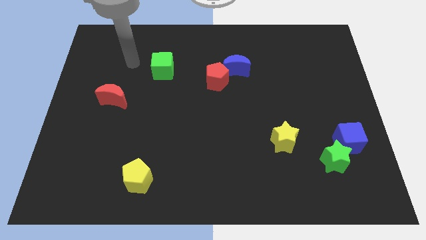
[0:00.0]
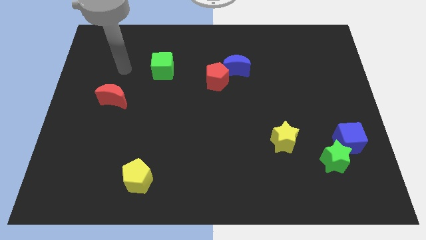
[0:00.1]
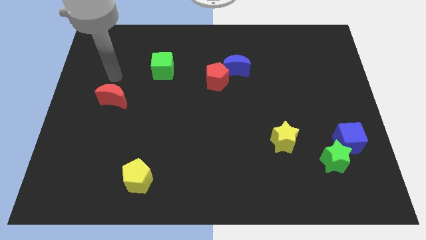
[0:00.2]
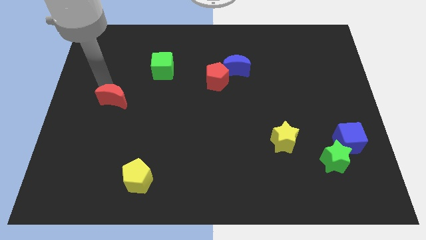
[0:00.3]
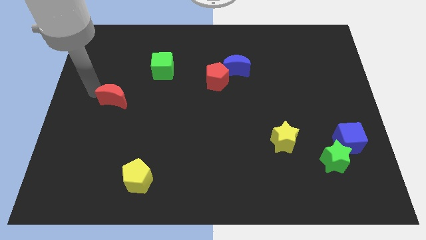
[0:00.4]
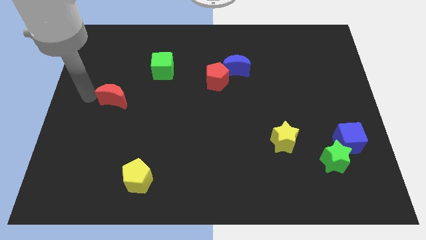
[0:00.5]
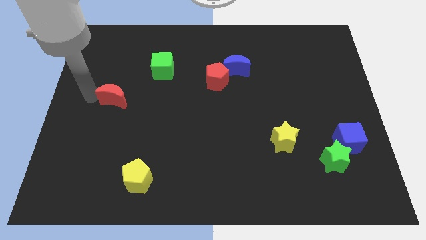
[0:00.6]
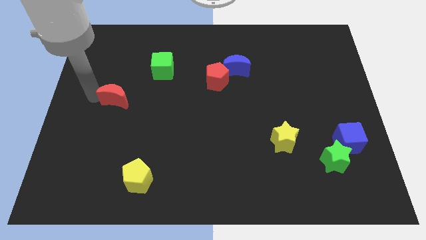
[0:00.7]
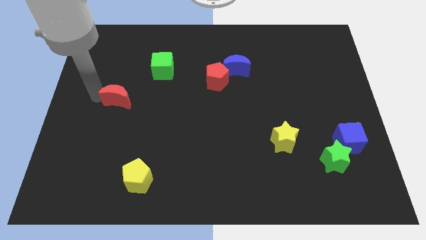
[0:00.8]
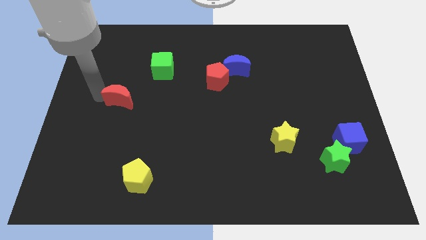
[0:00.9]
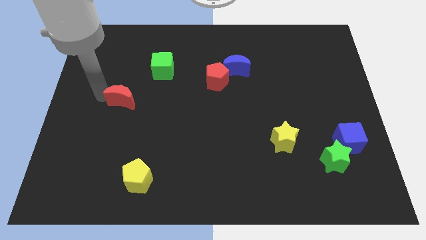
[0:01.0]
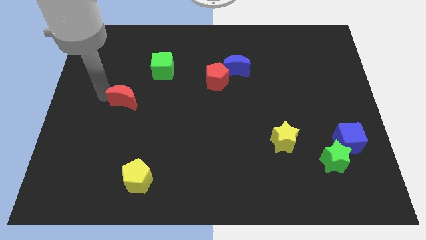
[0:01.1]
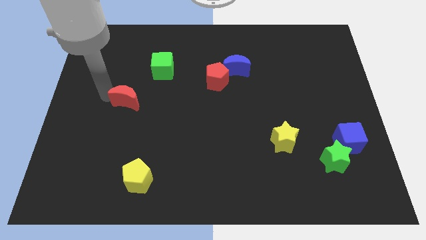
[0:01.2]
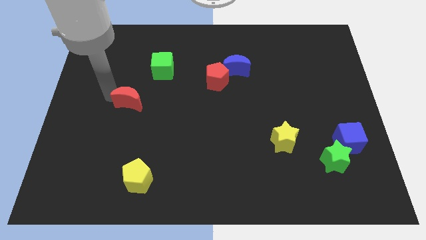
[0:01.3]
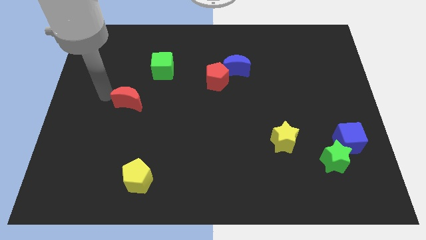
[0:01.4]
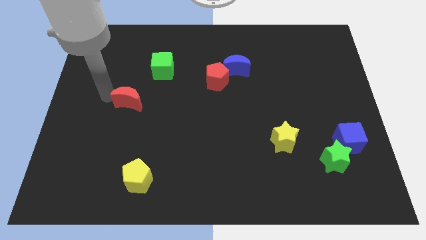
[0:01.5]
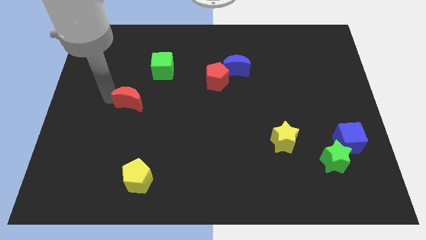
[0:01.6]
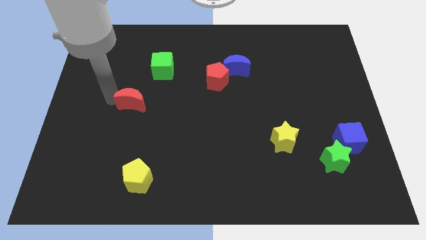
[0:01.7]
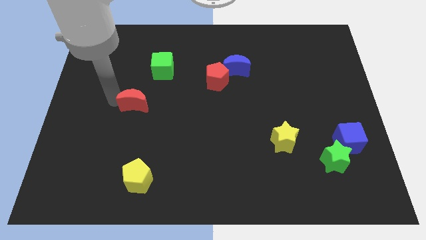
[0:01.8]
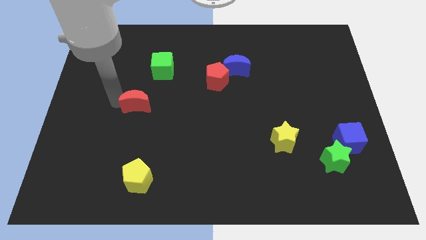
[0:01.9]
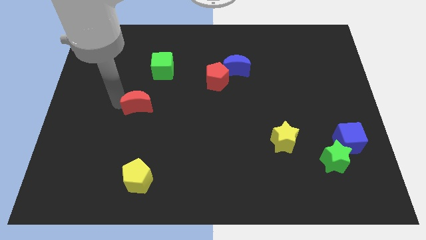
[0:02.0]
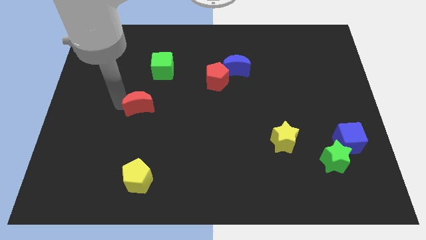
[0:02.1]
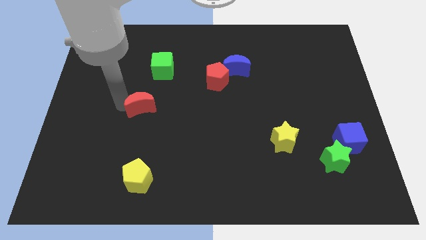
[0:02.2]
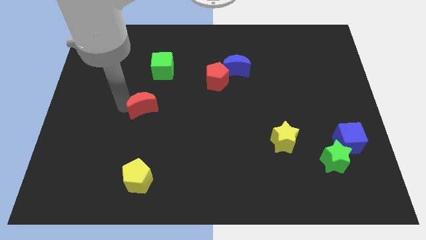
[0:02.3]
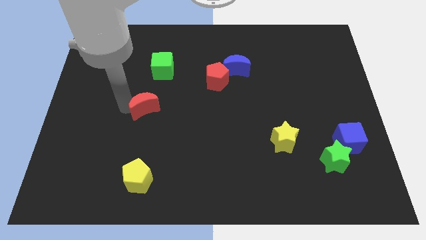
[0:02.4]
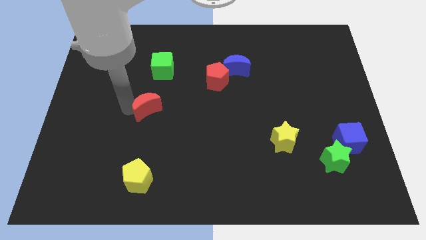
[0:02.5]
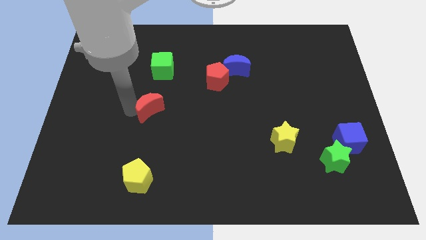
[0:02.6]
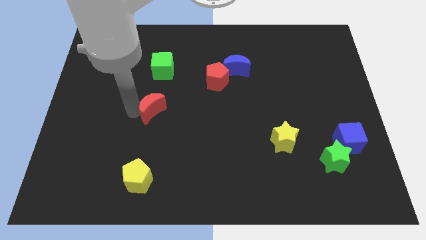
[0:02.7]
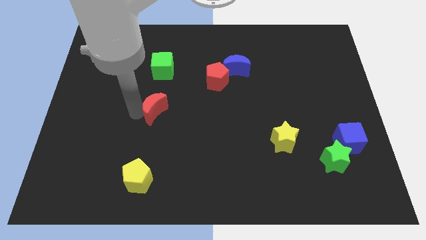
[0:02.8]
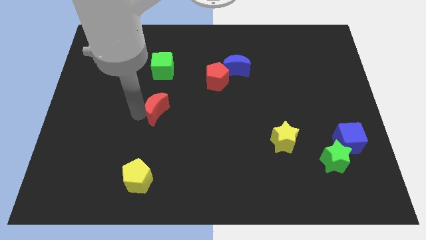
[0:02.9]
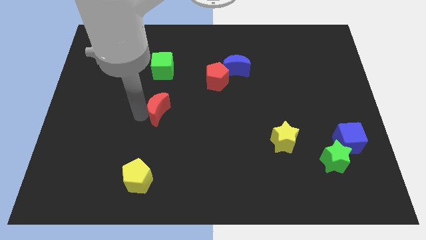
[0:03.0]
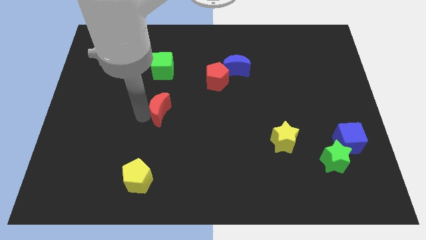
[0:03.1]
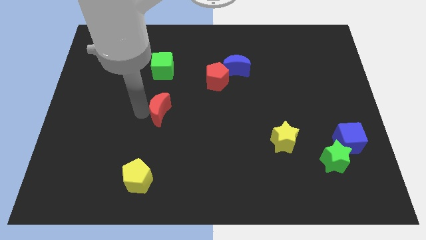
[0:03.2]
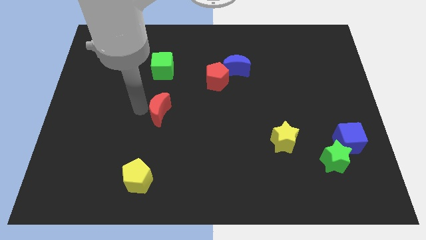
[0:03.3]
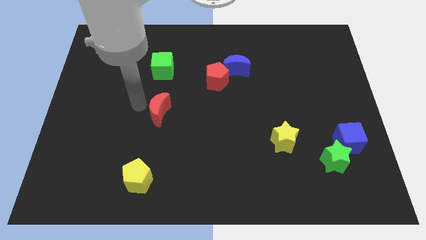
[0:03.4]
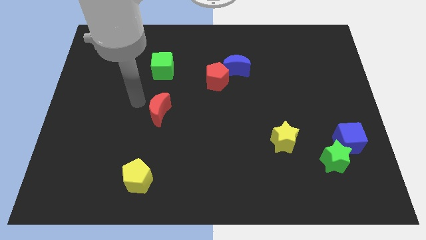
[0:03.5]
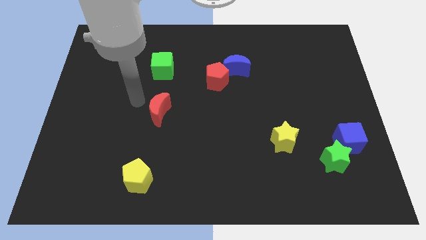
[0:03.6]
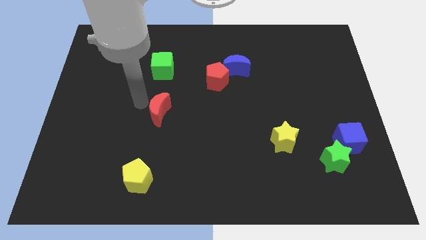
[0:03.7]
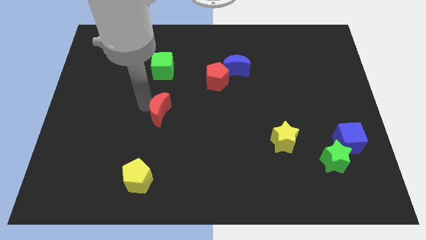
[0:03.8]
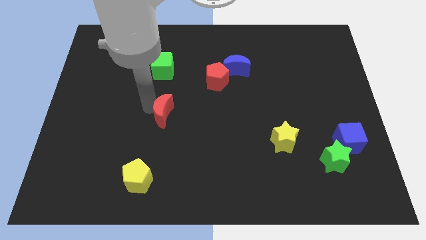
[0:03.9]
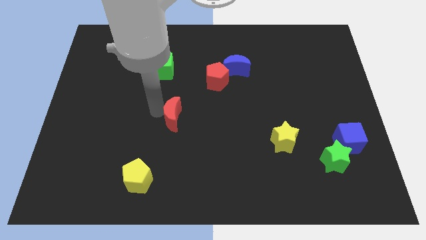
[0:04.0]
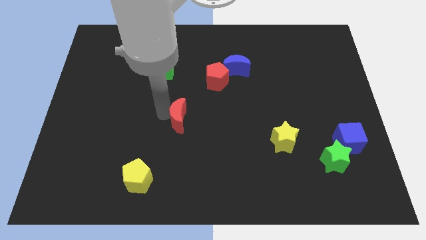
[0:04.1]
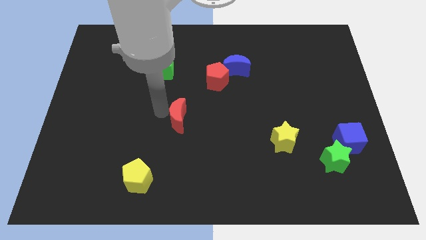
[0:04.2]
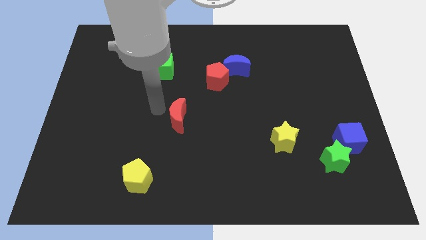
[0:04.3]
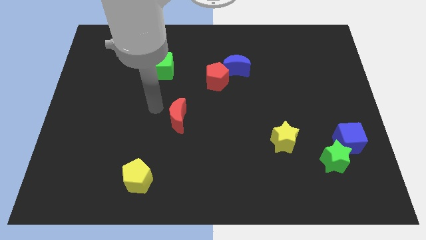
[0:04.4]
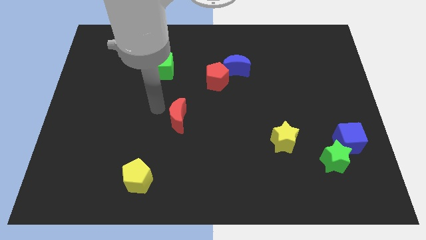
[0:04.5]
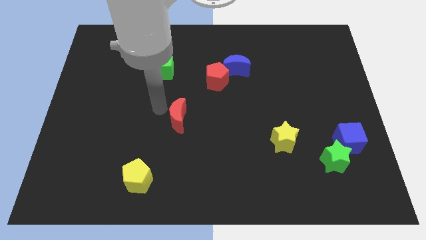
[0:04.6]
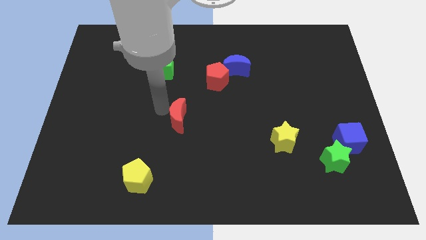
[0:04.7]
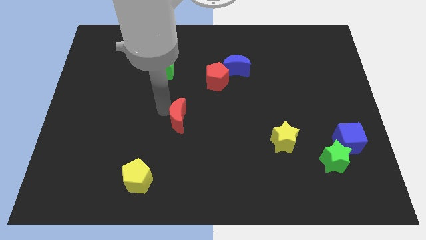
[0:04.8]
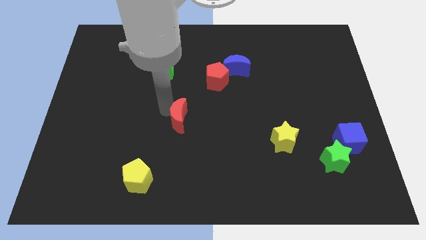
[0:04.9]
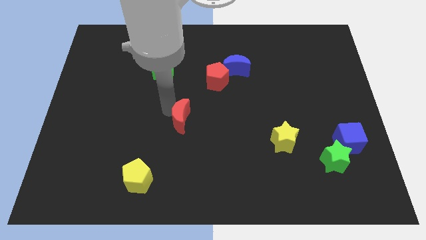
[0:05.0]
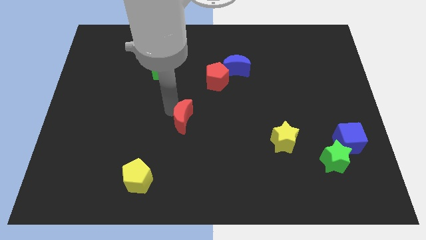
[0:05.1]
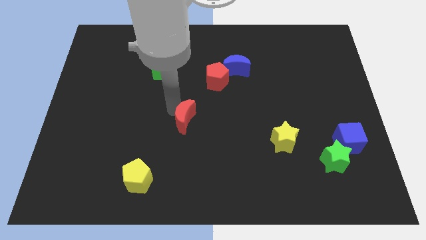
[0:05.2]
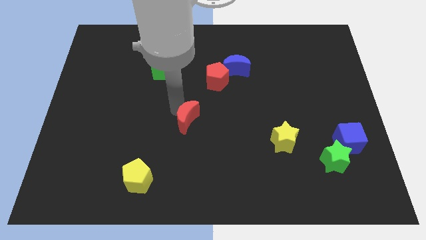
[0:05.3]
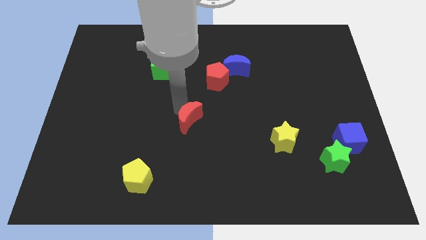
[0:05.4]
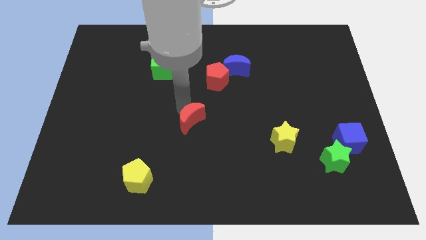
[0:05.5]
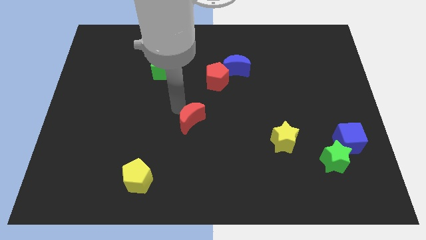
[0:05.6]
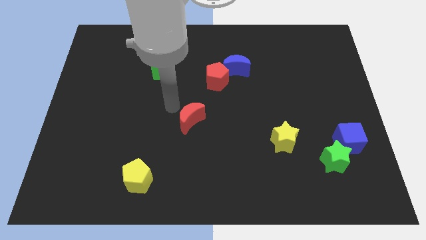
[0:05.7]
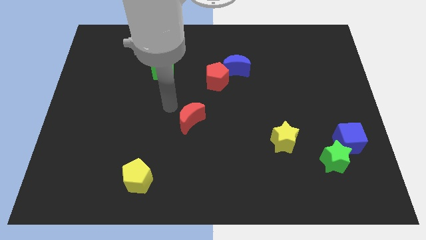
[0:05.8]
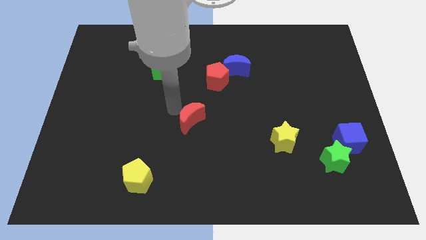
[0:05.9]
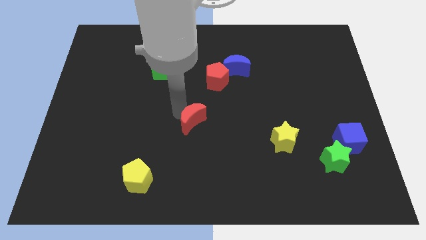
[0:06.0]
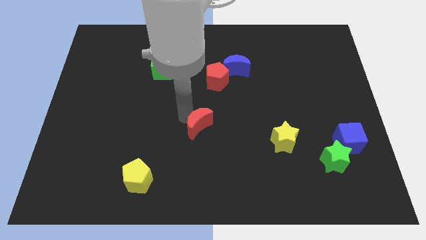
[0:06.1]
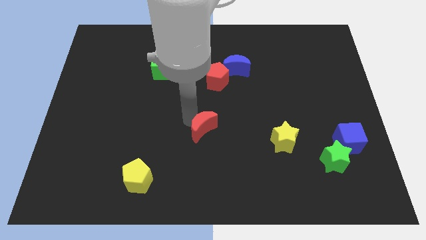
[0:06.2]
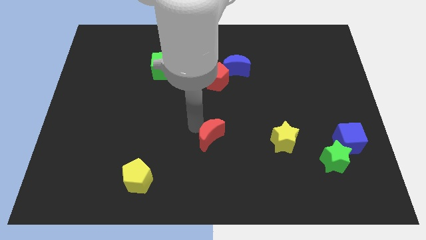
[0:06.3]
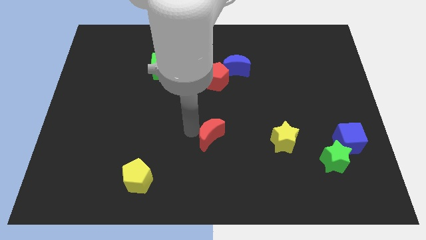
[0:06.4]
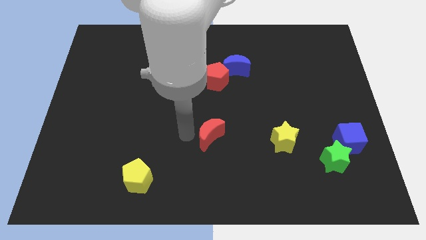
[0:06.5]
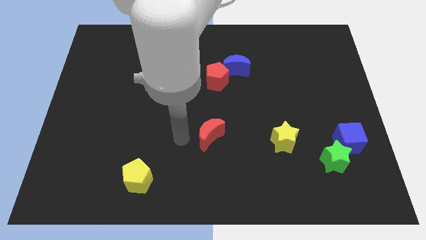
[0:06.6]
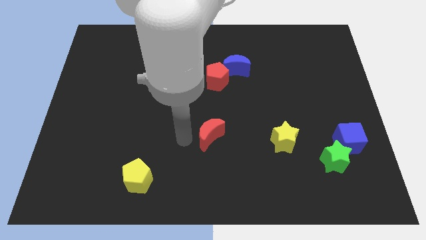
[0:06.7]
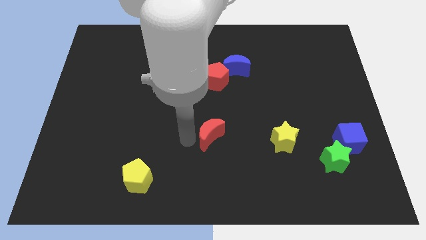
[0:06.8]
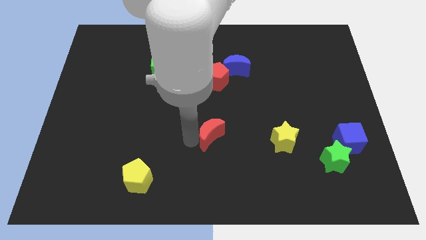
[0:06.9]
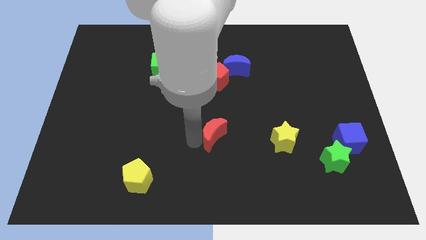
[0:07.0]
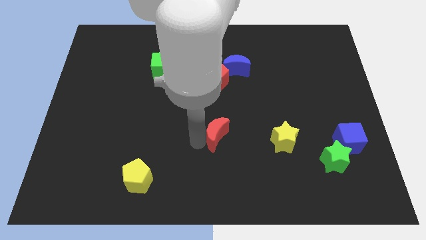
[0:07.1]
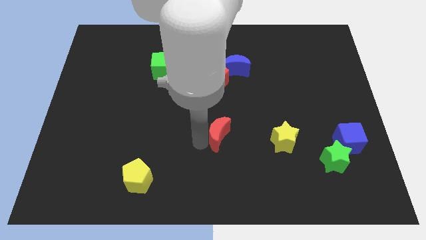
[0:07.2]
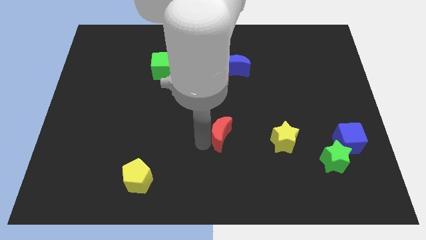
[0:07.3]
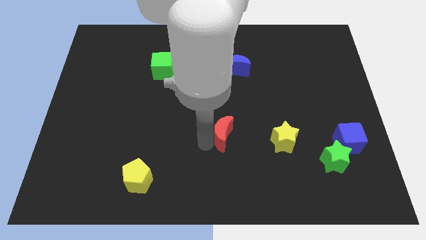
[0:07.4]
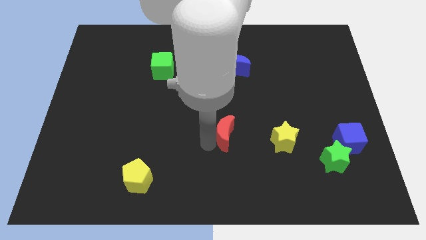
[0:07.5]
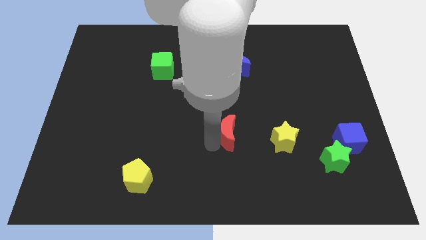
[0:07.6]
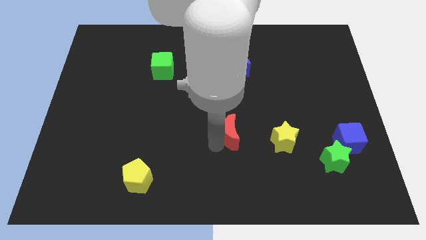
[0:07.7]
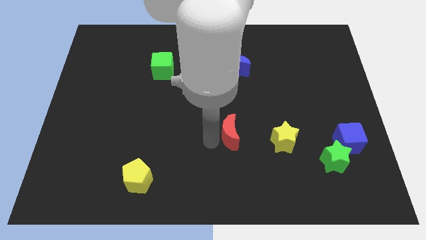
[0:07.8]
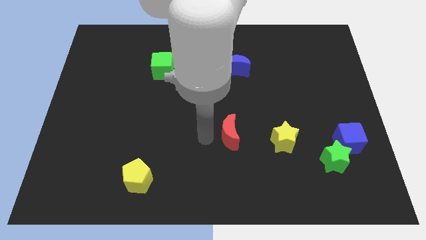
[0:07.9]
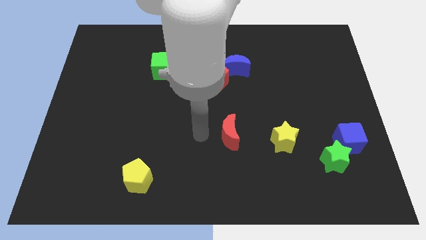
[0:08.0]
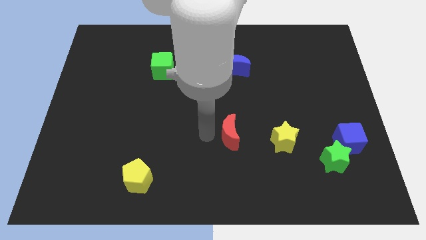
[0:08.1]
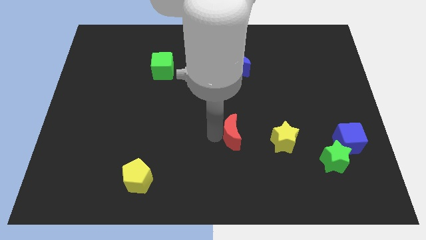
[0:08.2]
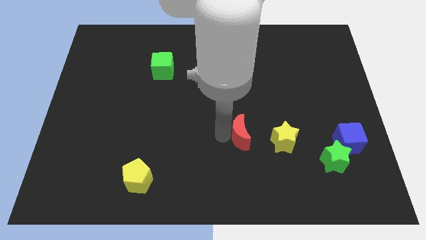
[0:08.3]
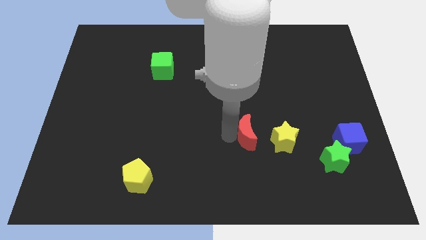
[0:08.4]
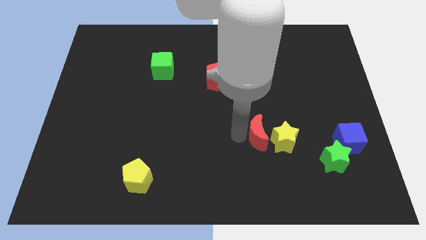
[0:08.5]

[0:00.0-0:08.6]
move the red moon towards the yellow star
